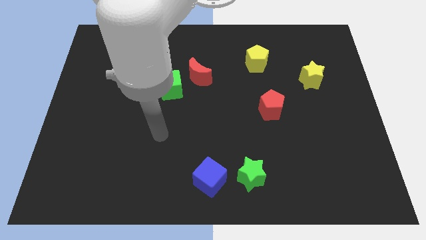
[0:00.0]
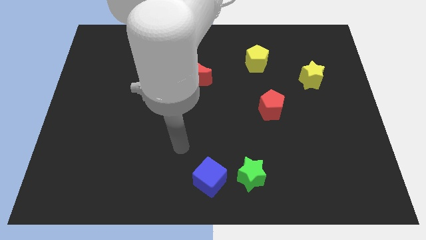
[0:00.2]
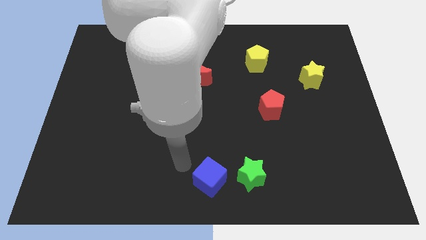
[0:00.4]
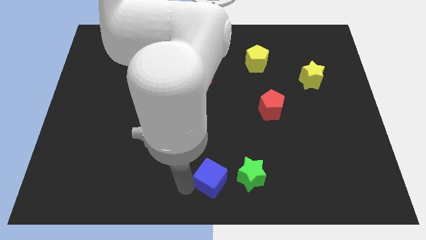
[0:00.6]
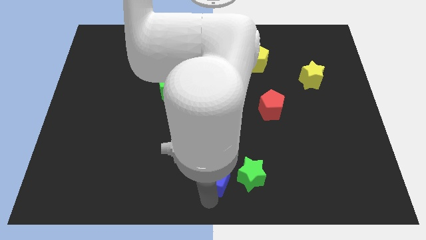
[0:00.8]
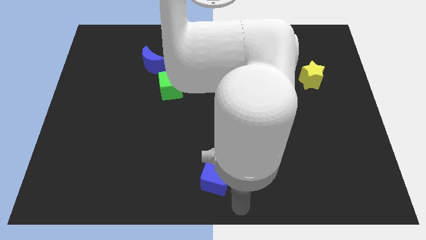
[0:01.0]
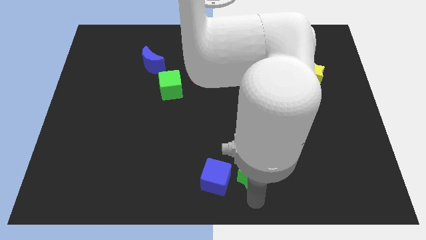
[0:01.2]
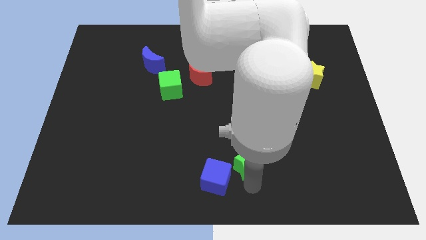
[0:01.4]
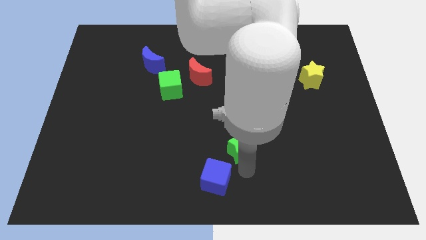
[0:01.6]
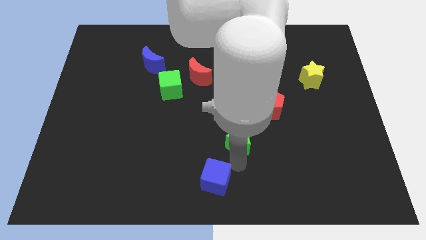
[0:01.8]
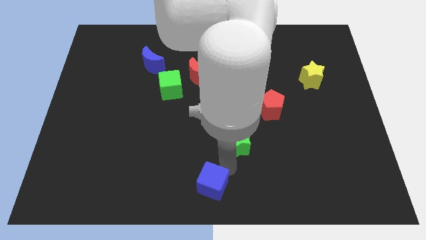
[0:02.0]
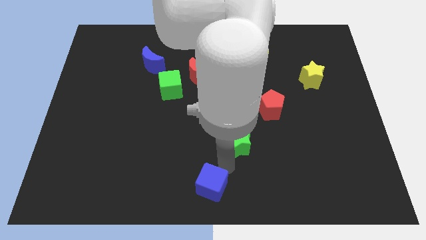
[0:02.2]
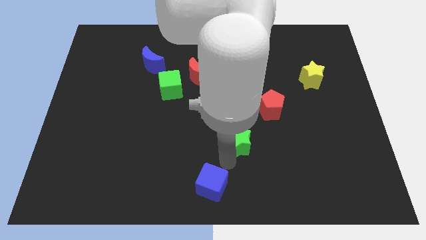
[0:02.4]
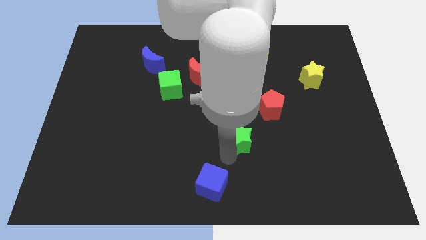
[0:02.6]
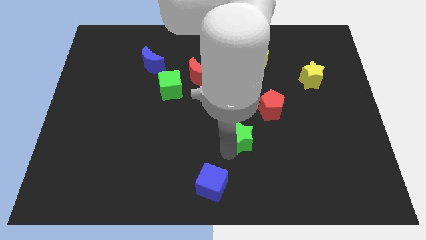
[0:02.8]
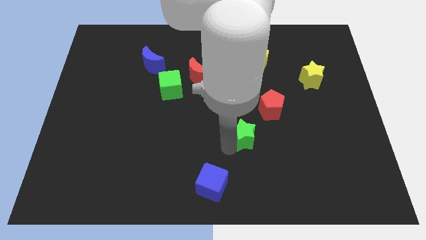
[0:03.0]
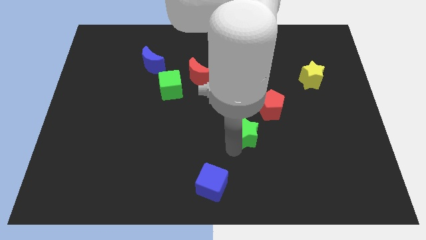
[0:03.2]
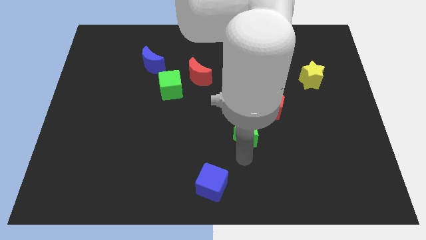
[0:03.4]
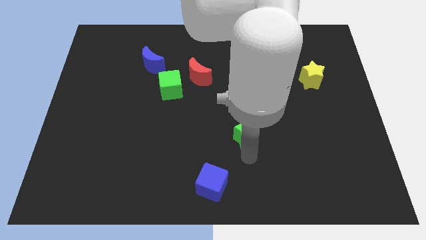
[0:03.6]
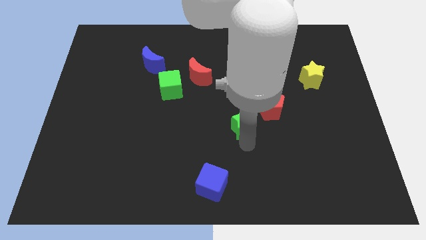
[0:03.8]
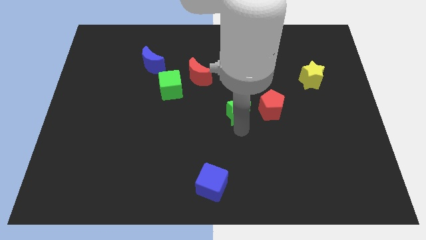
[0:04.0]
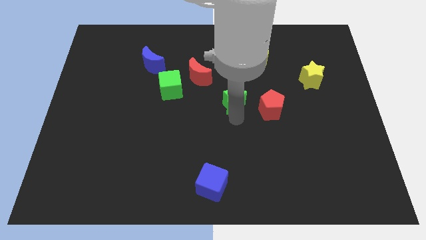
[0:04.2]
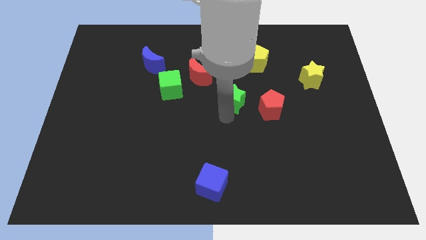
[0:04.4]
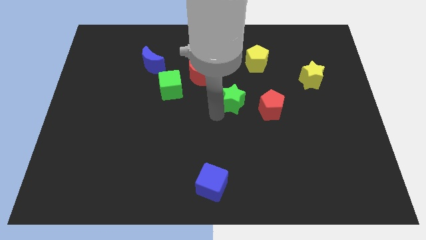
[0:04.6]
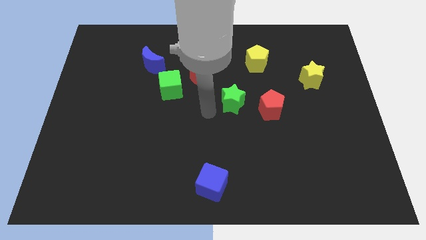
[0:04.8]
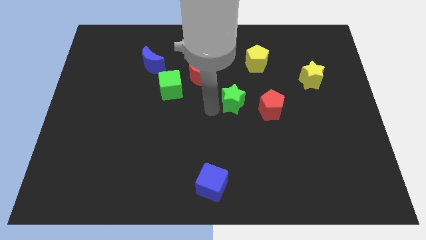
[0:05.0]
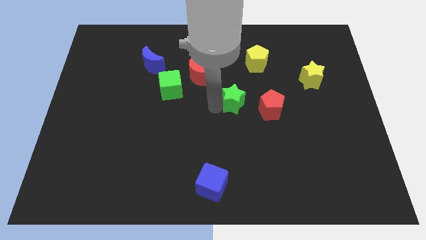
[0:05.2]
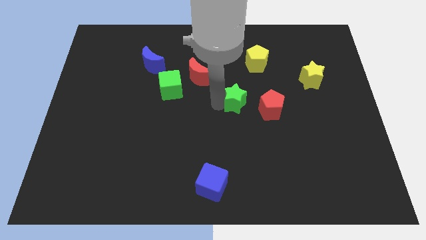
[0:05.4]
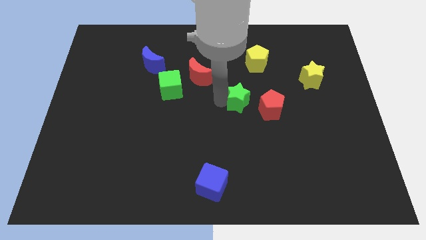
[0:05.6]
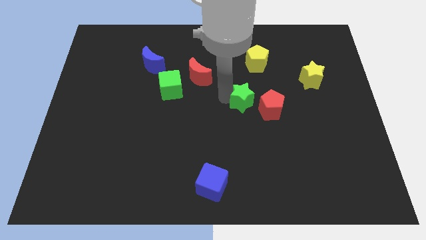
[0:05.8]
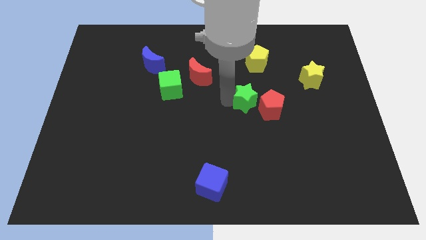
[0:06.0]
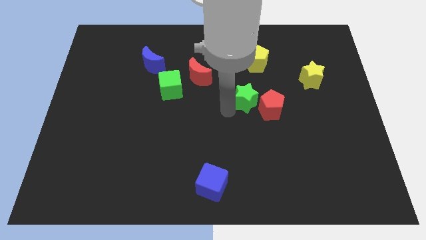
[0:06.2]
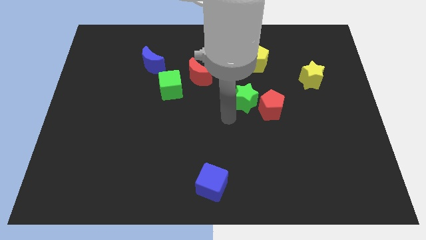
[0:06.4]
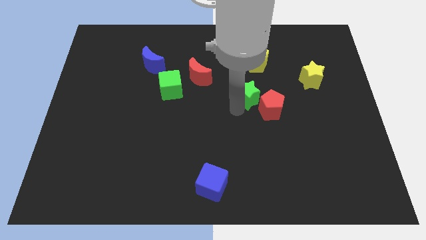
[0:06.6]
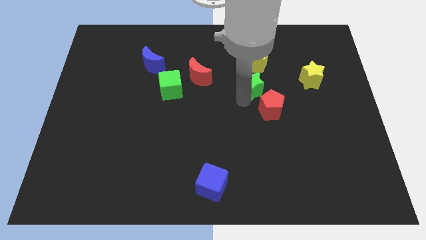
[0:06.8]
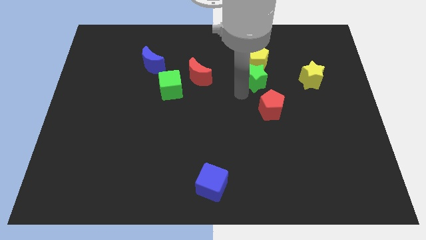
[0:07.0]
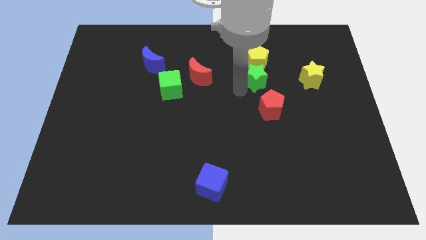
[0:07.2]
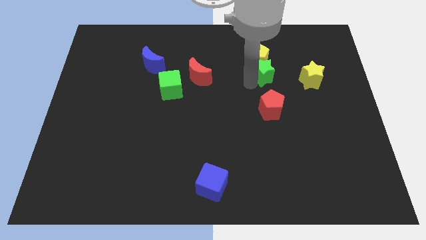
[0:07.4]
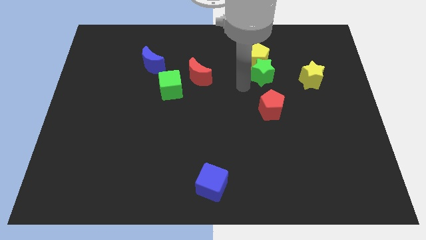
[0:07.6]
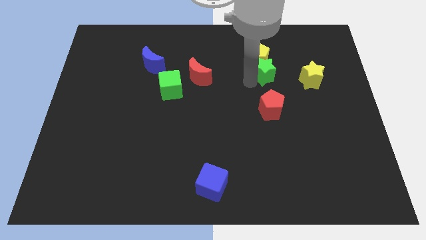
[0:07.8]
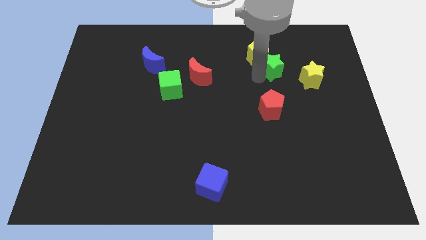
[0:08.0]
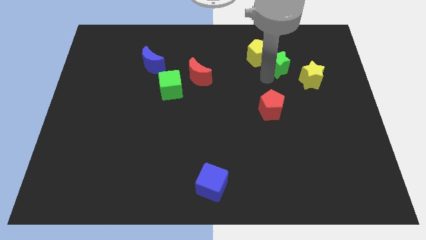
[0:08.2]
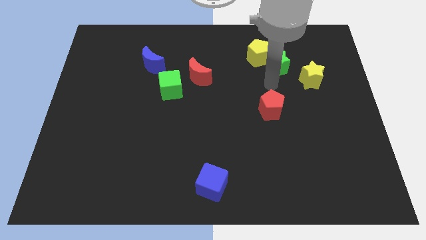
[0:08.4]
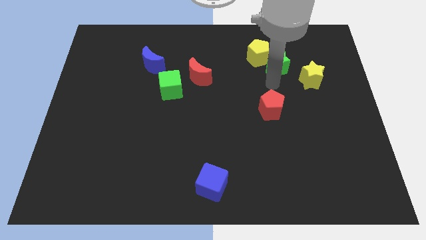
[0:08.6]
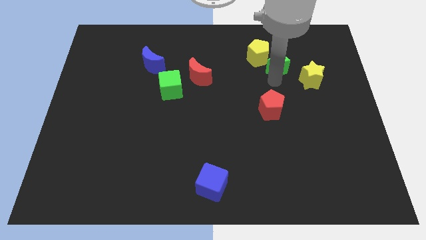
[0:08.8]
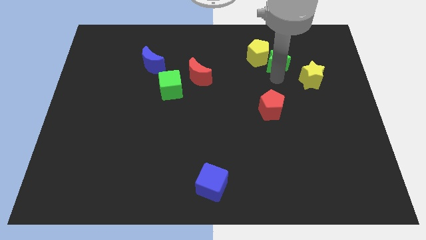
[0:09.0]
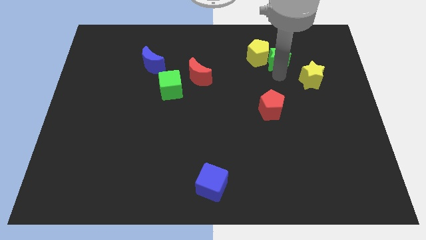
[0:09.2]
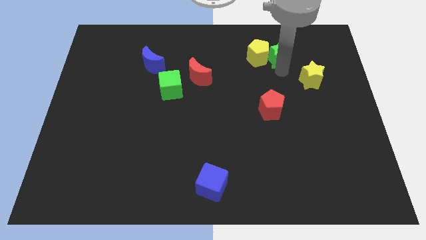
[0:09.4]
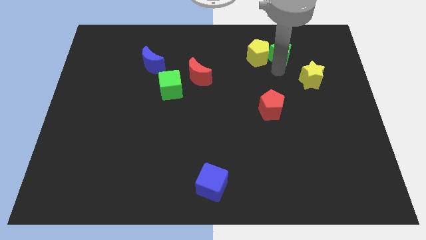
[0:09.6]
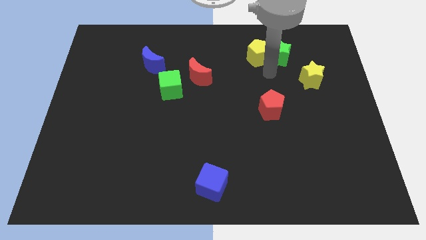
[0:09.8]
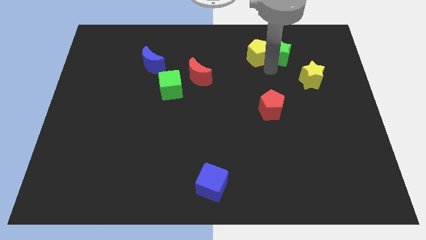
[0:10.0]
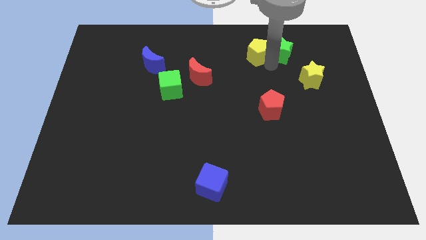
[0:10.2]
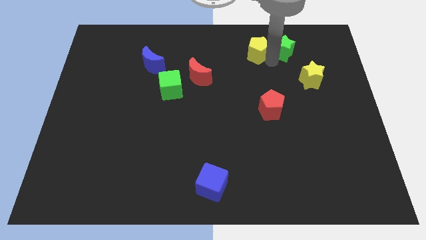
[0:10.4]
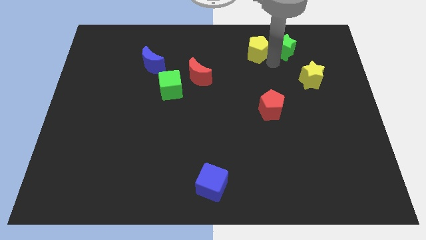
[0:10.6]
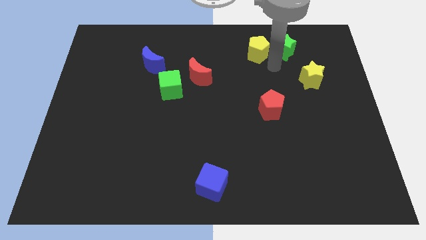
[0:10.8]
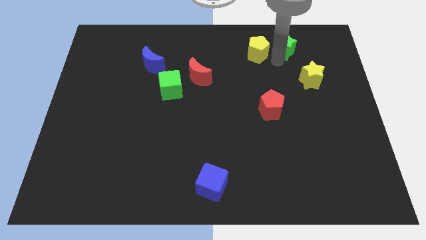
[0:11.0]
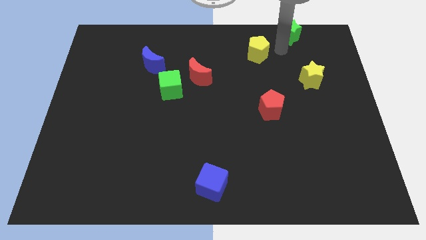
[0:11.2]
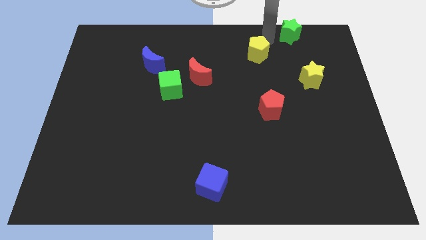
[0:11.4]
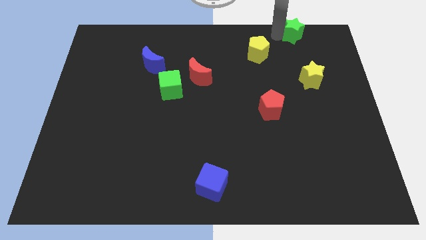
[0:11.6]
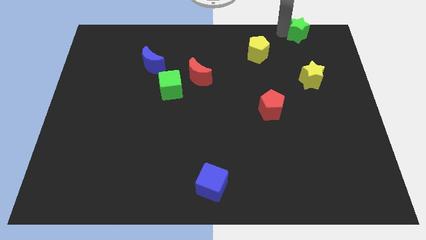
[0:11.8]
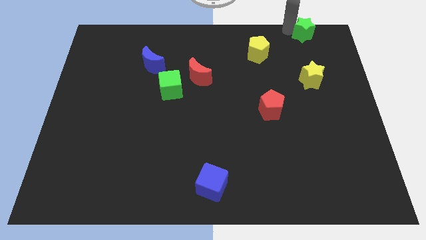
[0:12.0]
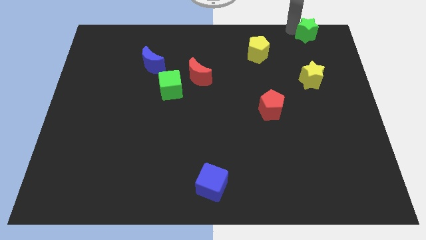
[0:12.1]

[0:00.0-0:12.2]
put the green star to the top right
